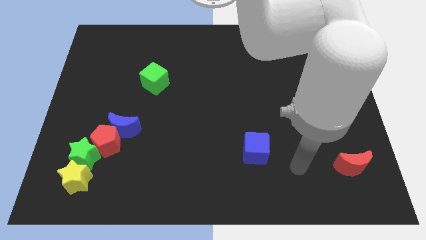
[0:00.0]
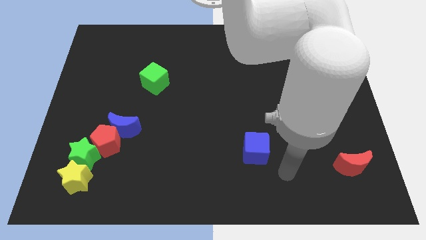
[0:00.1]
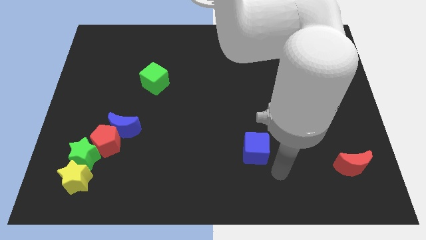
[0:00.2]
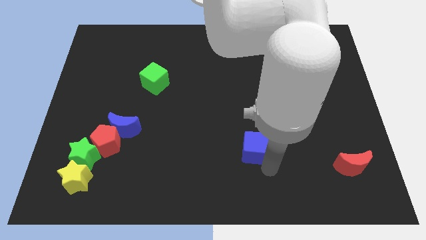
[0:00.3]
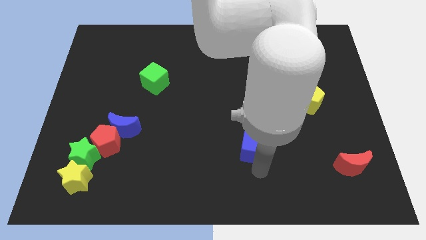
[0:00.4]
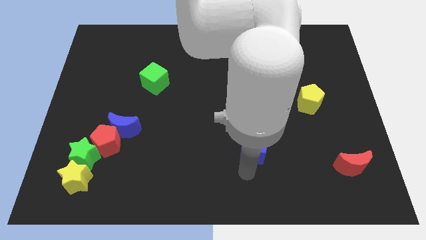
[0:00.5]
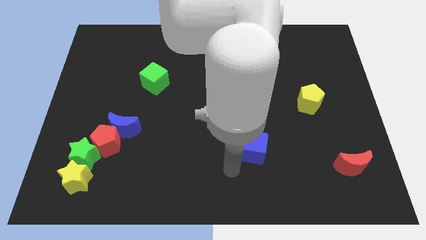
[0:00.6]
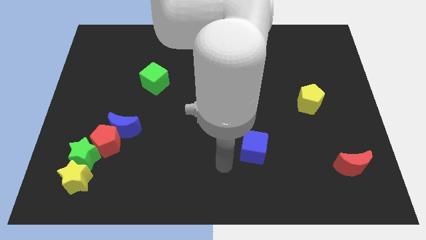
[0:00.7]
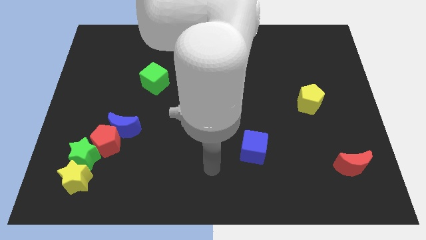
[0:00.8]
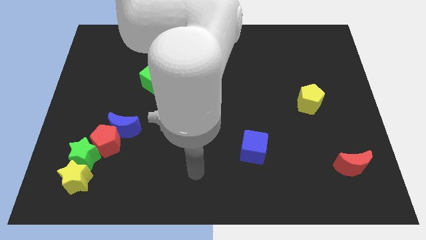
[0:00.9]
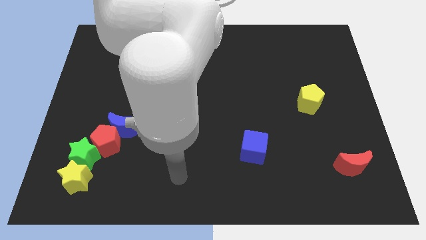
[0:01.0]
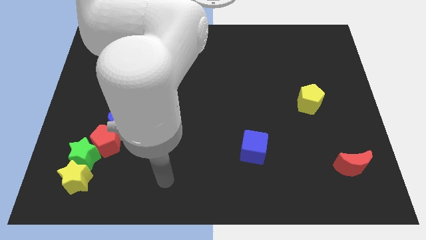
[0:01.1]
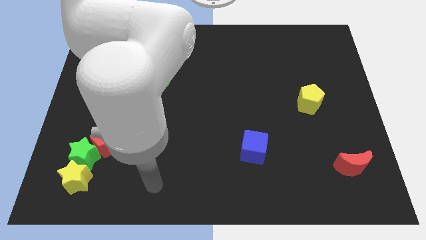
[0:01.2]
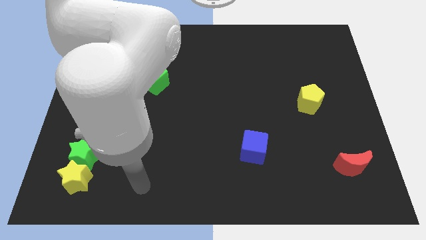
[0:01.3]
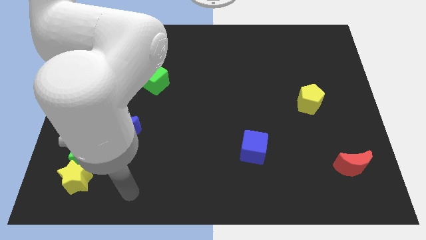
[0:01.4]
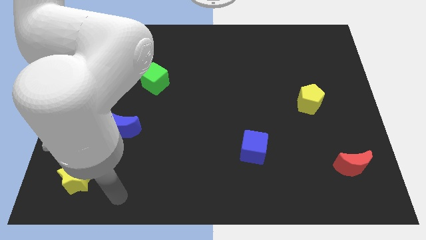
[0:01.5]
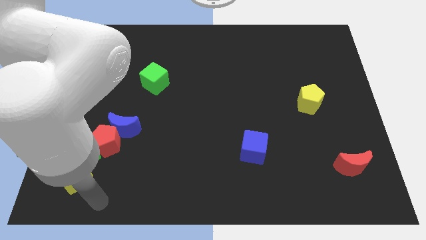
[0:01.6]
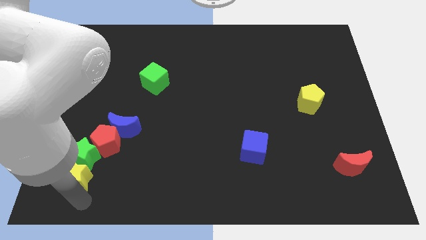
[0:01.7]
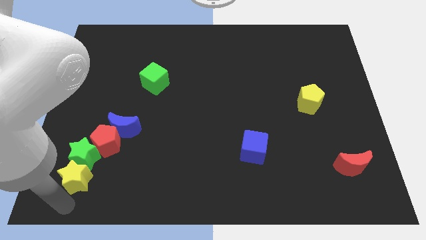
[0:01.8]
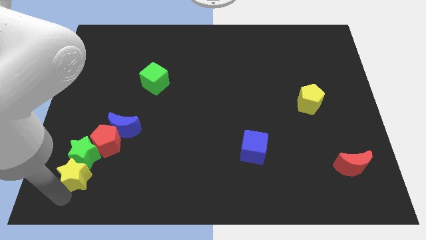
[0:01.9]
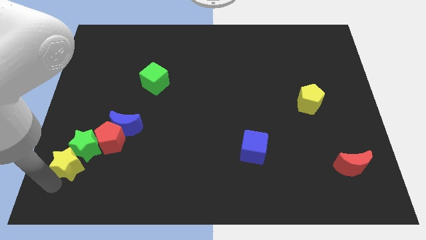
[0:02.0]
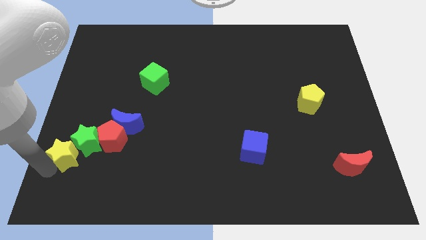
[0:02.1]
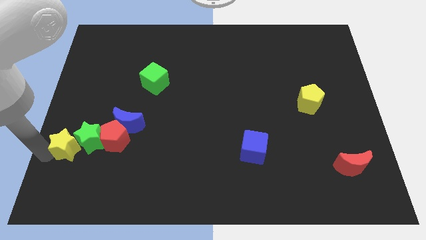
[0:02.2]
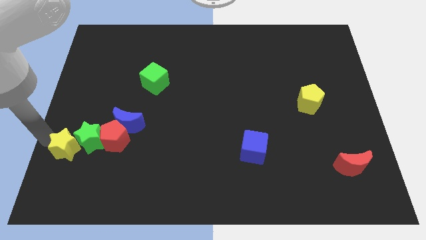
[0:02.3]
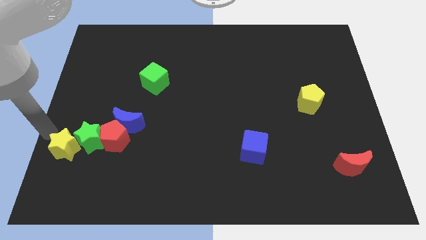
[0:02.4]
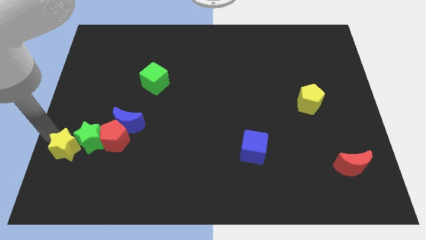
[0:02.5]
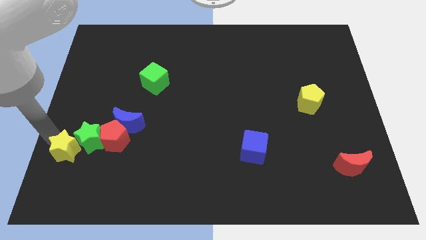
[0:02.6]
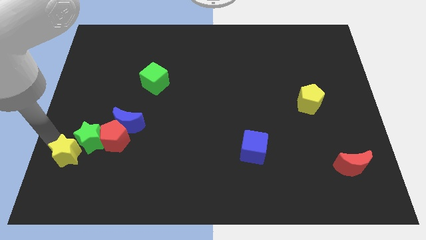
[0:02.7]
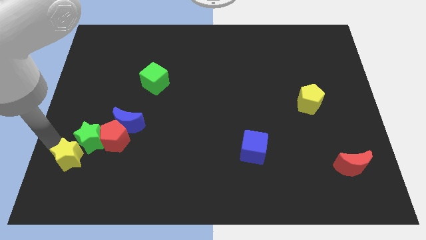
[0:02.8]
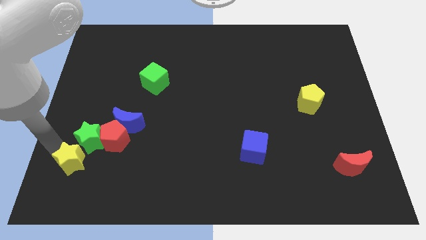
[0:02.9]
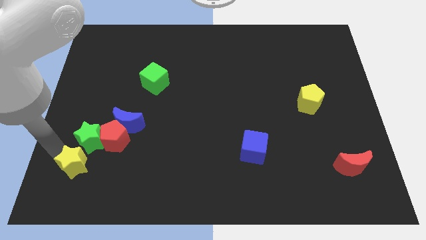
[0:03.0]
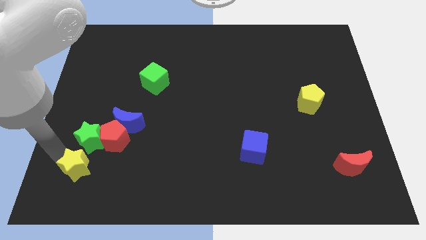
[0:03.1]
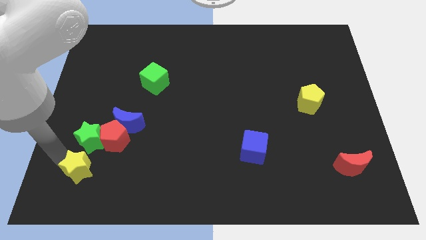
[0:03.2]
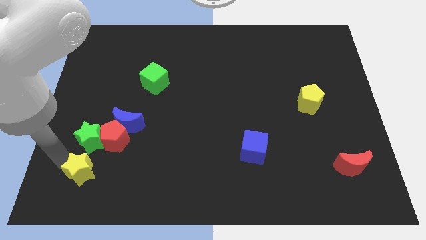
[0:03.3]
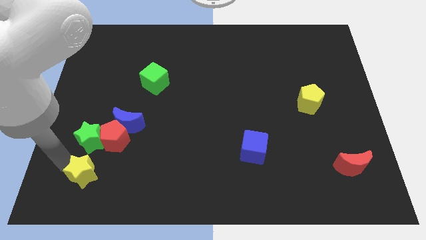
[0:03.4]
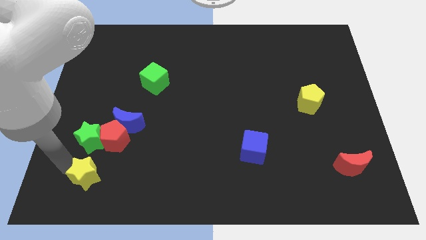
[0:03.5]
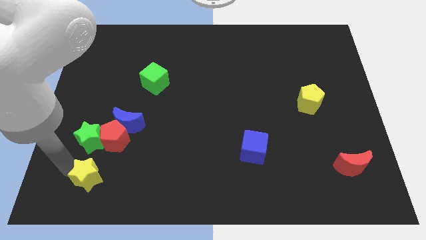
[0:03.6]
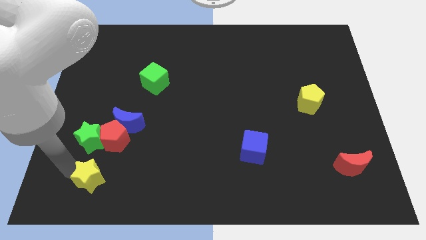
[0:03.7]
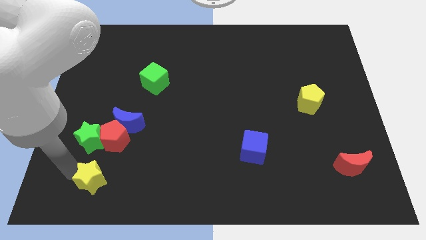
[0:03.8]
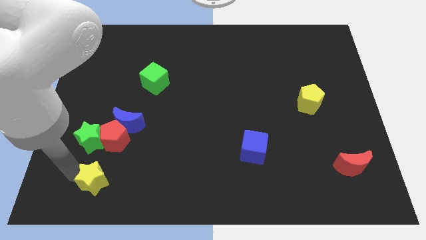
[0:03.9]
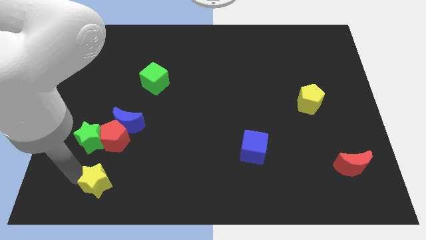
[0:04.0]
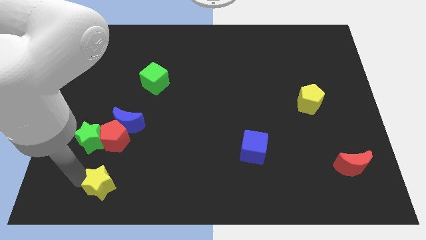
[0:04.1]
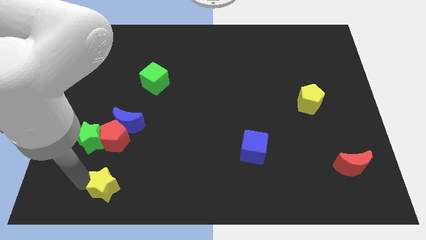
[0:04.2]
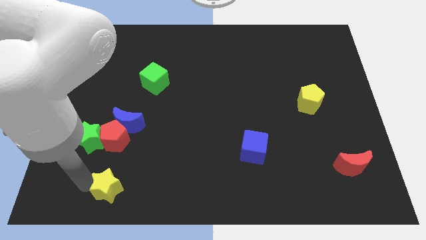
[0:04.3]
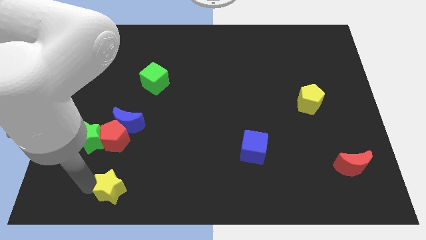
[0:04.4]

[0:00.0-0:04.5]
slide the yellow star a little right

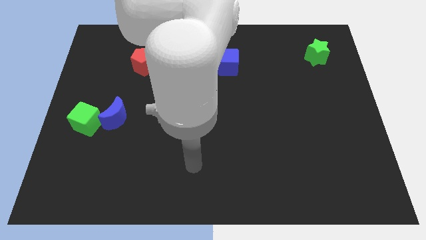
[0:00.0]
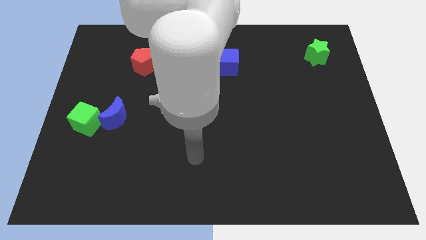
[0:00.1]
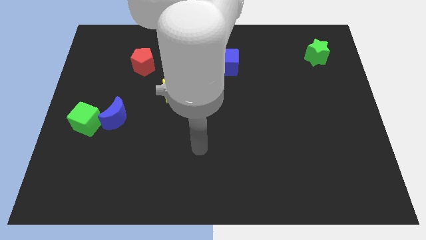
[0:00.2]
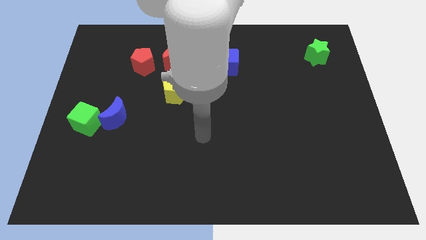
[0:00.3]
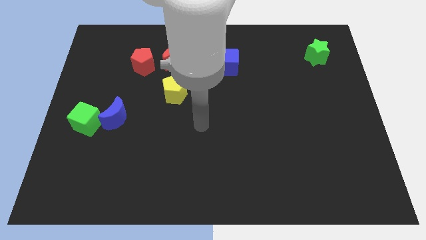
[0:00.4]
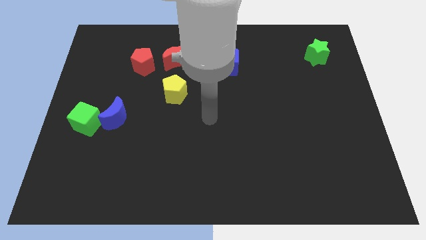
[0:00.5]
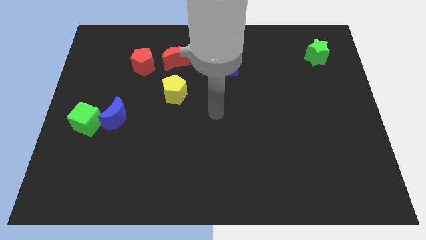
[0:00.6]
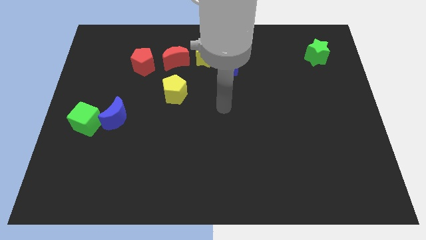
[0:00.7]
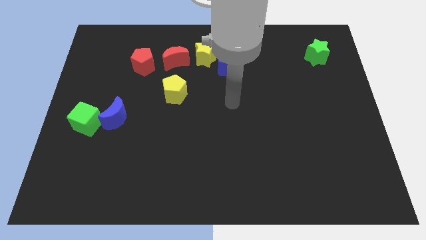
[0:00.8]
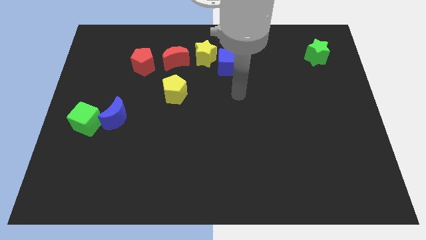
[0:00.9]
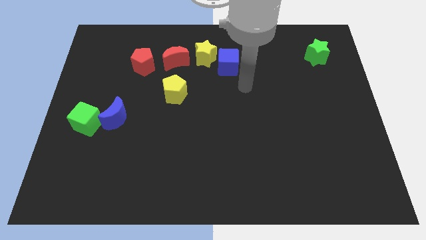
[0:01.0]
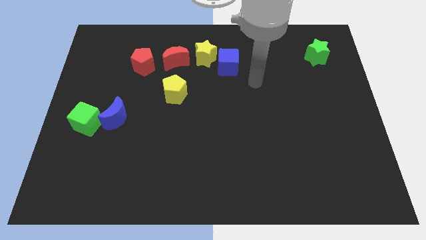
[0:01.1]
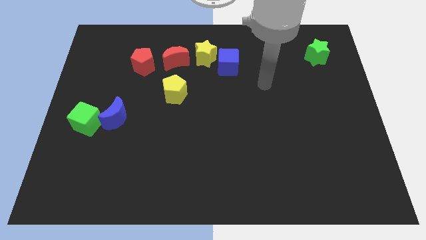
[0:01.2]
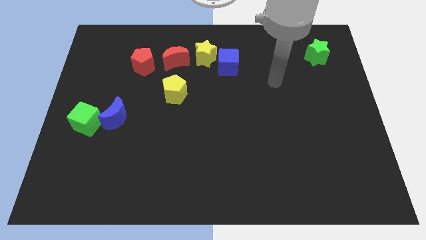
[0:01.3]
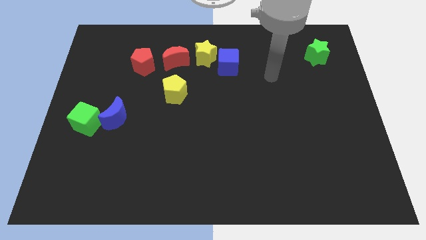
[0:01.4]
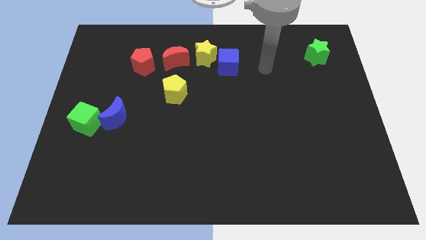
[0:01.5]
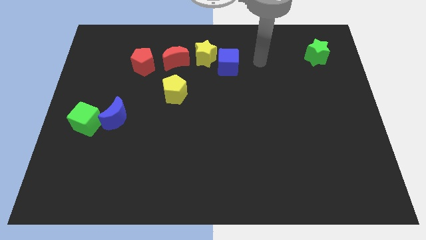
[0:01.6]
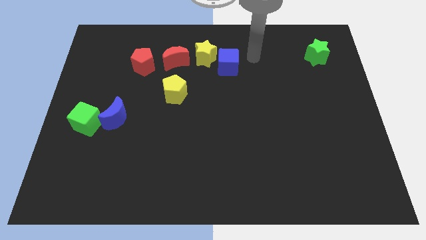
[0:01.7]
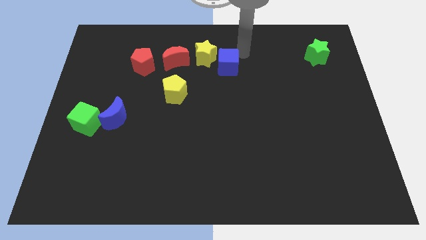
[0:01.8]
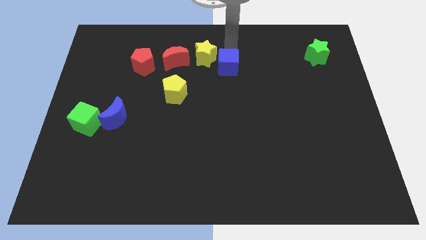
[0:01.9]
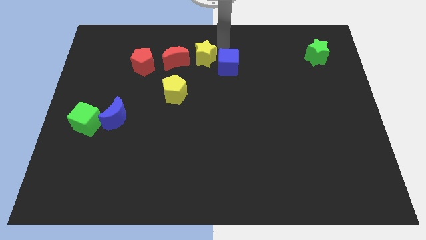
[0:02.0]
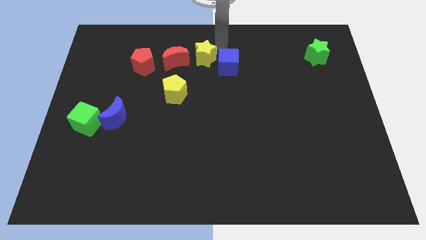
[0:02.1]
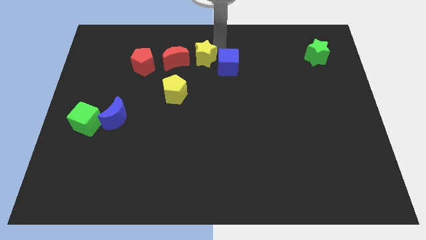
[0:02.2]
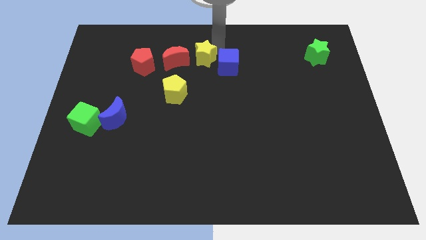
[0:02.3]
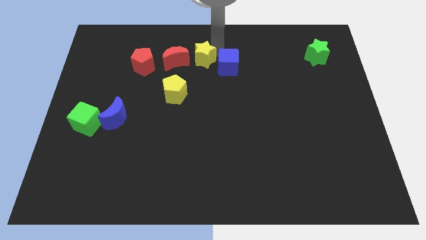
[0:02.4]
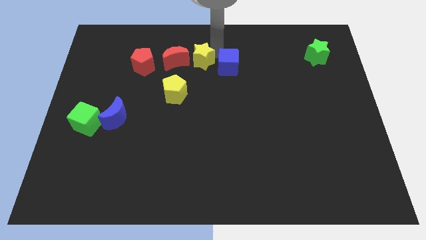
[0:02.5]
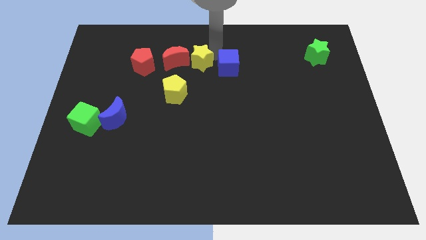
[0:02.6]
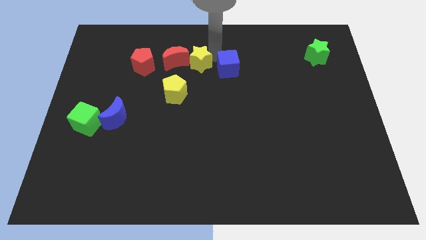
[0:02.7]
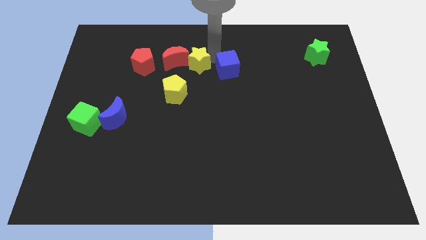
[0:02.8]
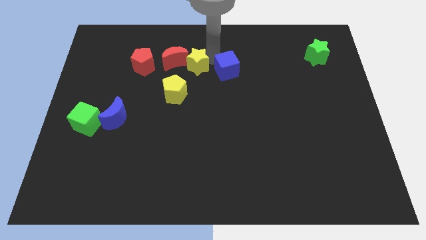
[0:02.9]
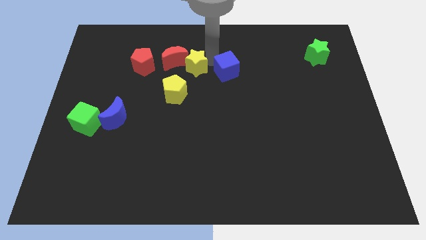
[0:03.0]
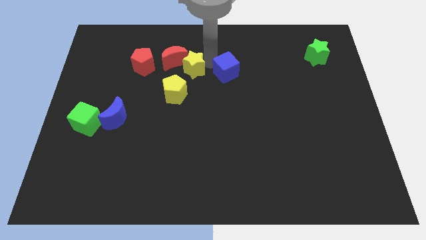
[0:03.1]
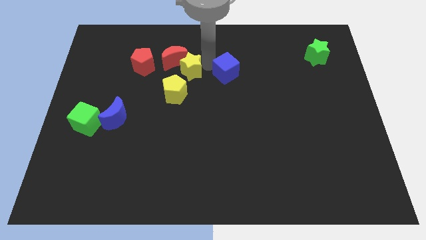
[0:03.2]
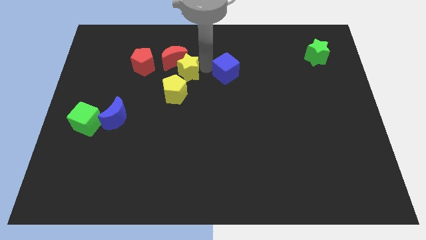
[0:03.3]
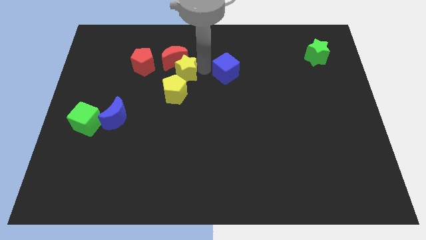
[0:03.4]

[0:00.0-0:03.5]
slightly slide the yellow star downwards and then left
